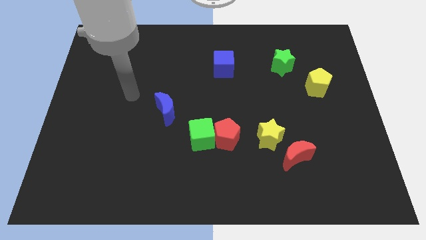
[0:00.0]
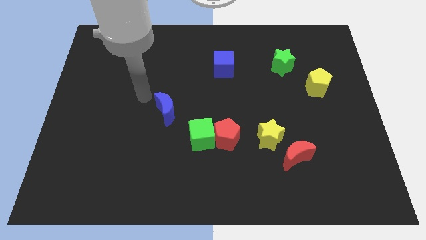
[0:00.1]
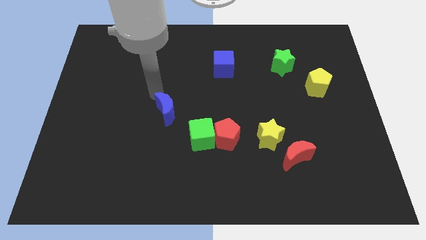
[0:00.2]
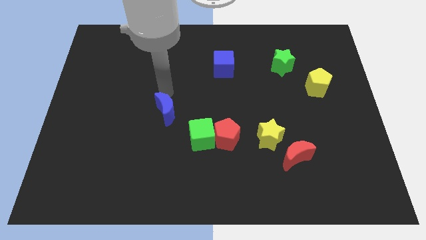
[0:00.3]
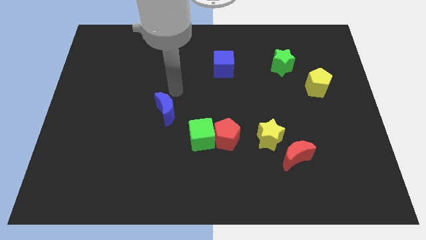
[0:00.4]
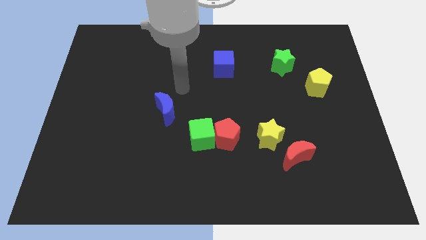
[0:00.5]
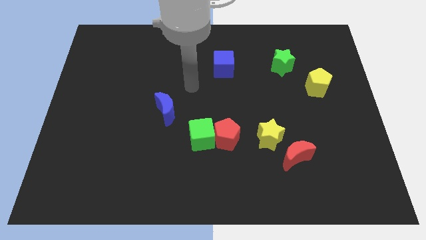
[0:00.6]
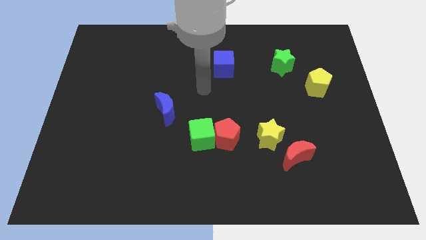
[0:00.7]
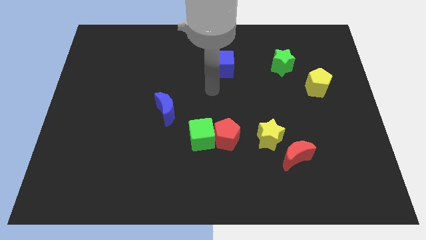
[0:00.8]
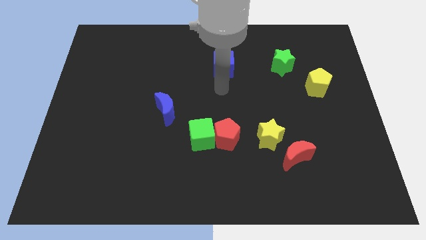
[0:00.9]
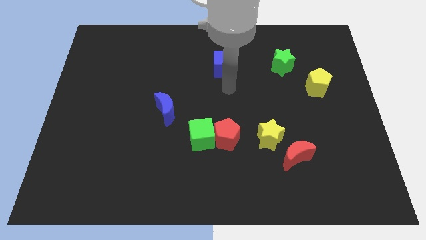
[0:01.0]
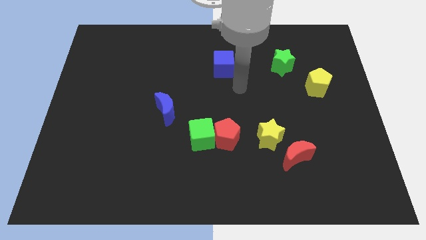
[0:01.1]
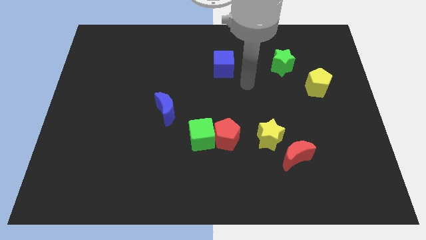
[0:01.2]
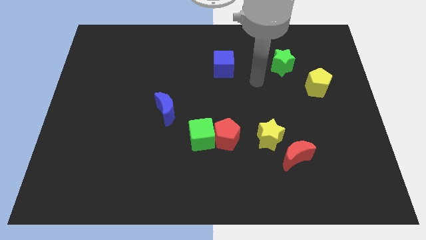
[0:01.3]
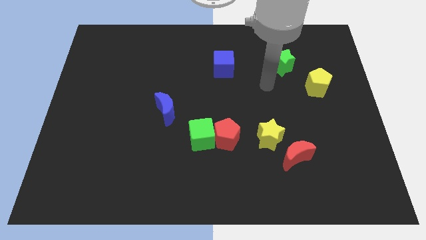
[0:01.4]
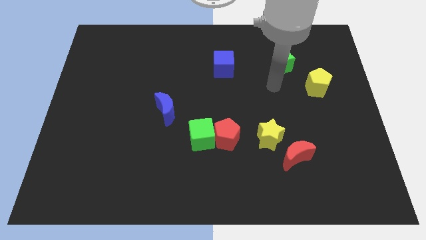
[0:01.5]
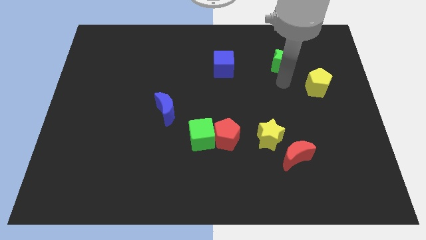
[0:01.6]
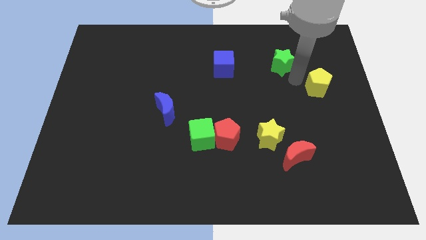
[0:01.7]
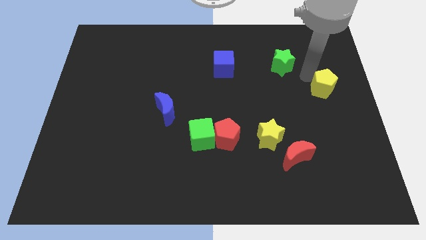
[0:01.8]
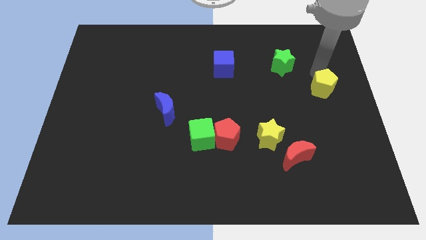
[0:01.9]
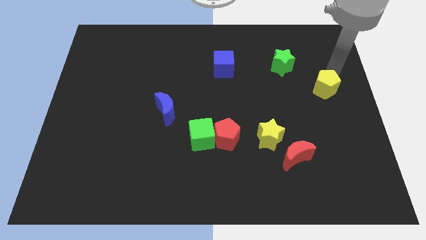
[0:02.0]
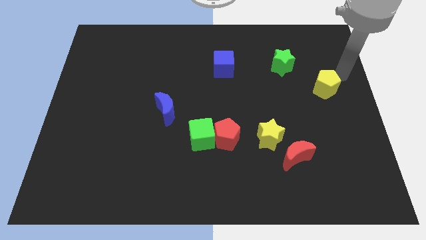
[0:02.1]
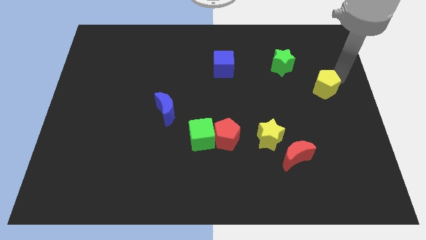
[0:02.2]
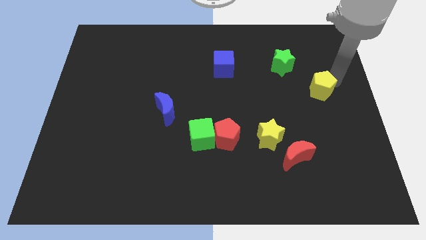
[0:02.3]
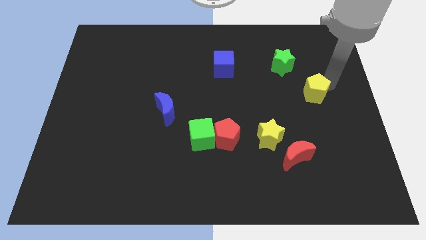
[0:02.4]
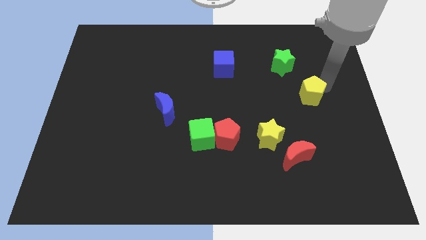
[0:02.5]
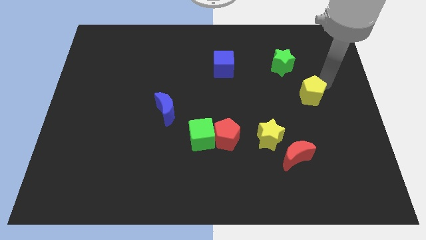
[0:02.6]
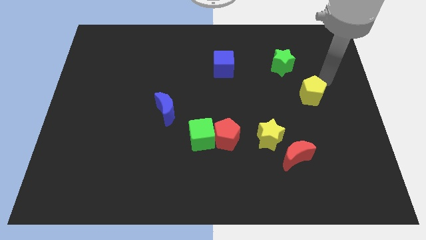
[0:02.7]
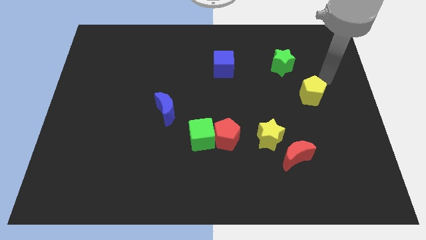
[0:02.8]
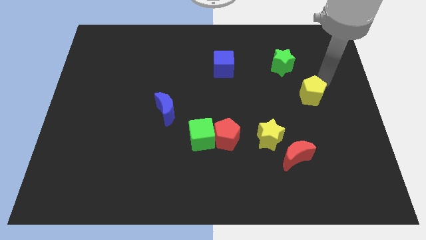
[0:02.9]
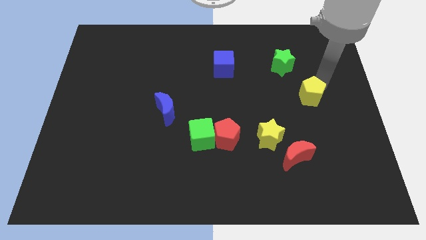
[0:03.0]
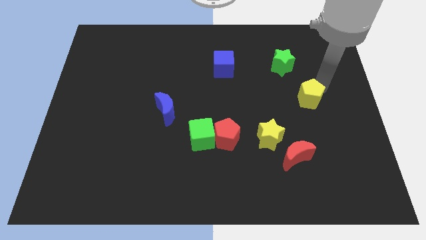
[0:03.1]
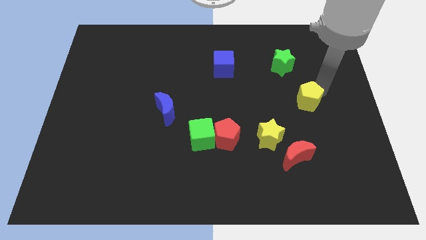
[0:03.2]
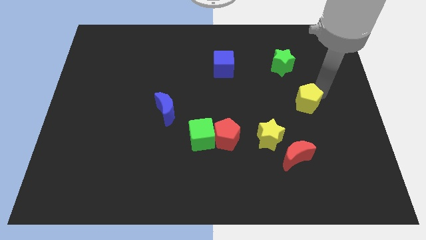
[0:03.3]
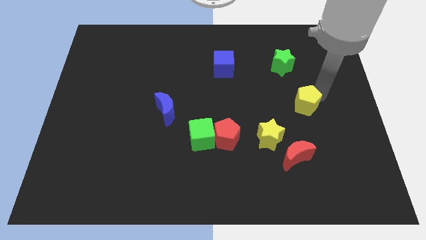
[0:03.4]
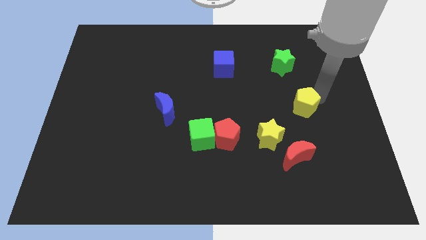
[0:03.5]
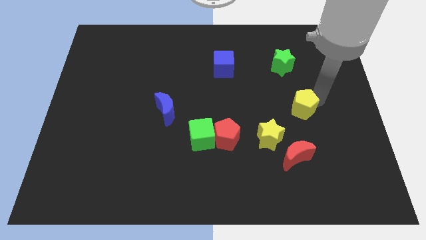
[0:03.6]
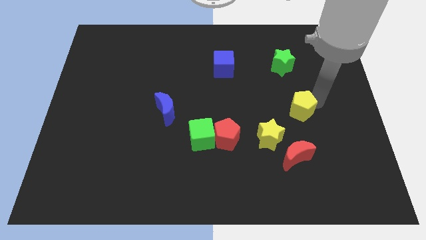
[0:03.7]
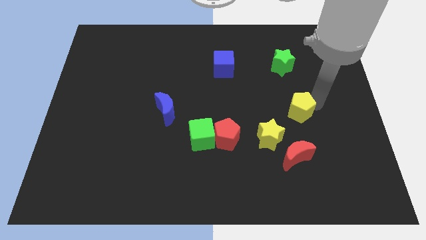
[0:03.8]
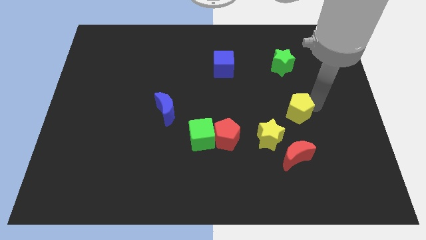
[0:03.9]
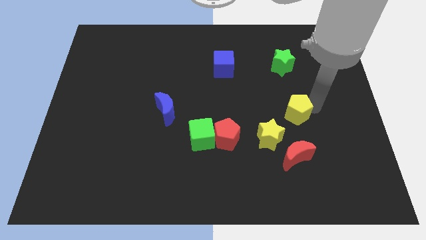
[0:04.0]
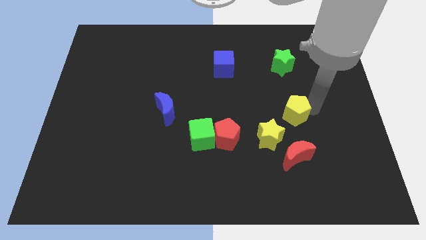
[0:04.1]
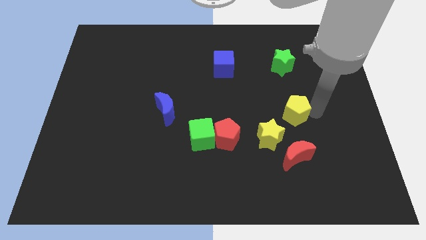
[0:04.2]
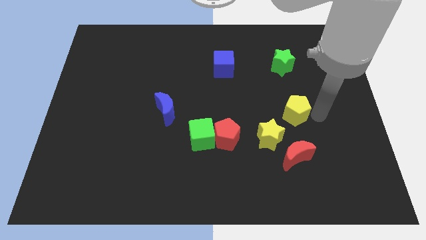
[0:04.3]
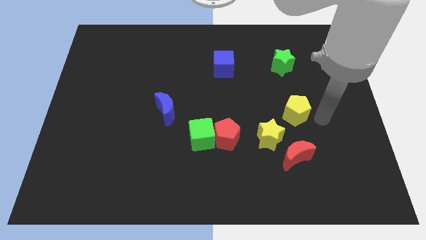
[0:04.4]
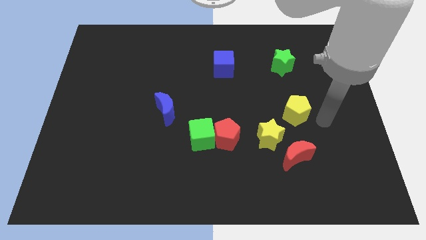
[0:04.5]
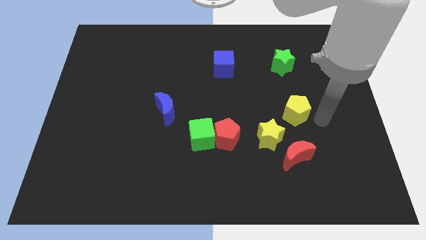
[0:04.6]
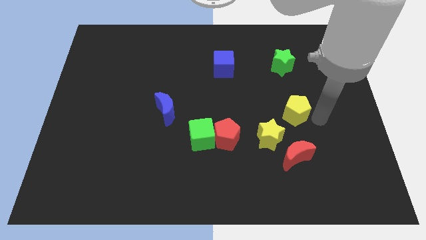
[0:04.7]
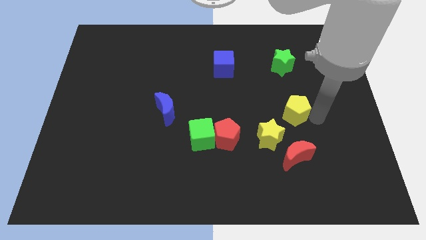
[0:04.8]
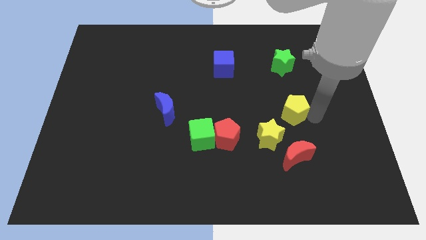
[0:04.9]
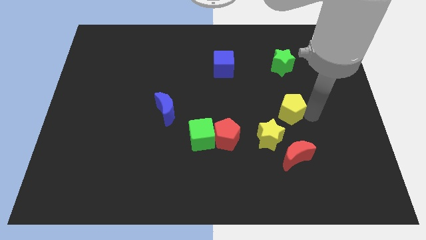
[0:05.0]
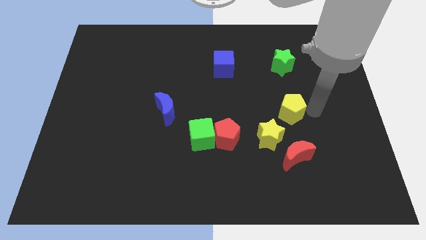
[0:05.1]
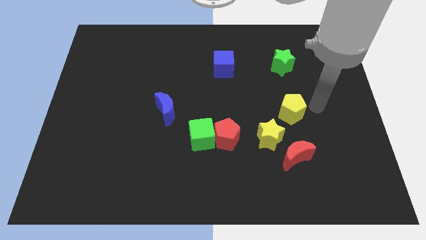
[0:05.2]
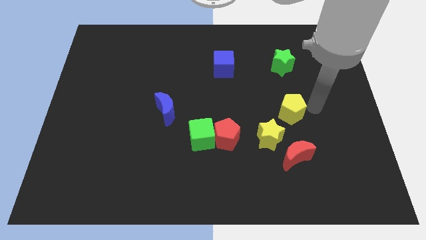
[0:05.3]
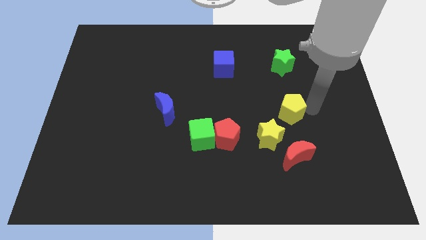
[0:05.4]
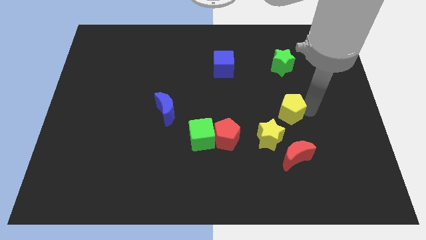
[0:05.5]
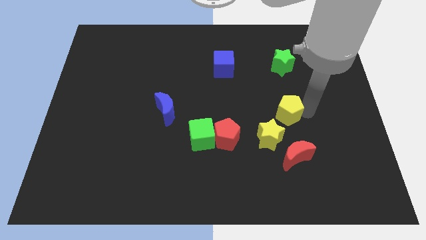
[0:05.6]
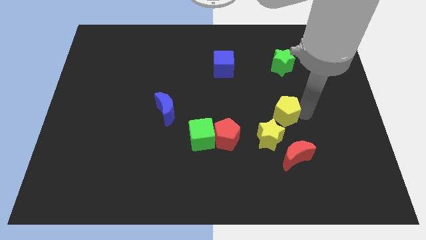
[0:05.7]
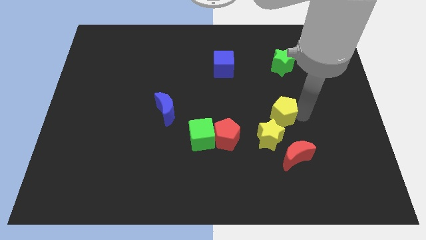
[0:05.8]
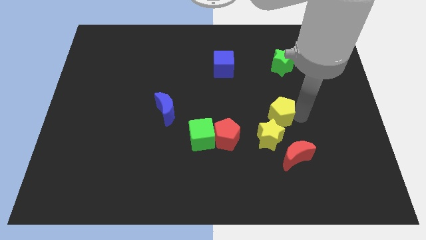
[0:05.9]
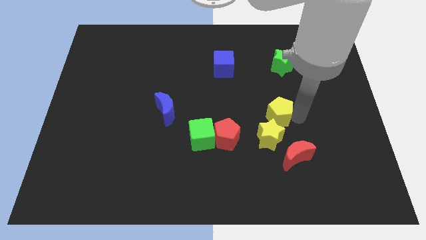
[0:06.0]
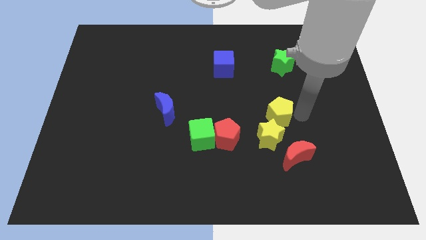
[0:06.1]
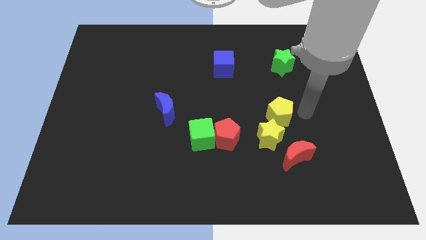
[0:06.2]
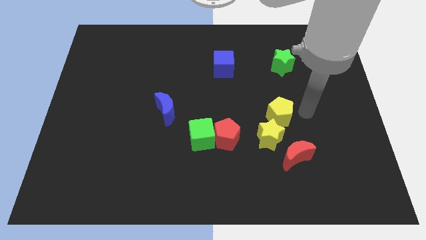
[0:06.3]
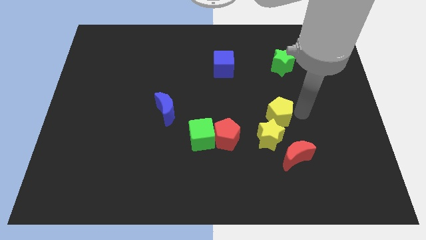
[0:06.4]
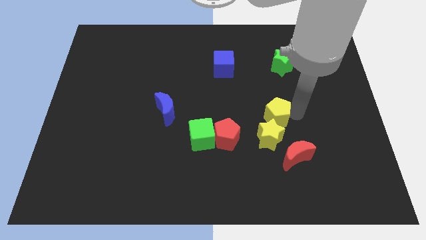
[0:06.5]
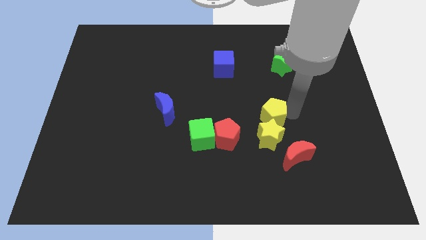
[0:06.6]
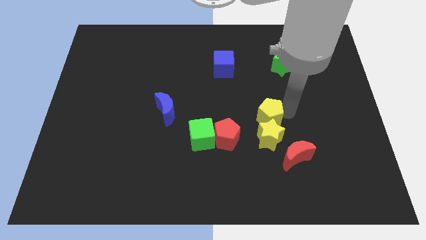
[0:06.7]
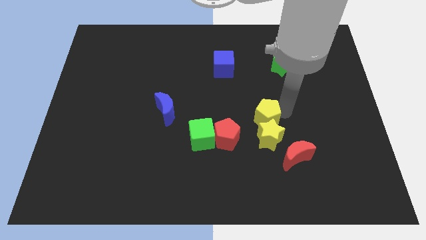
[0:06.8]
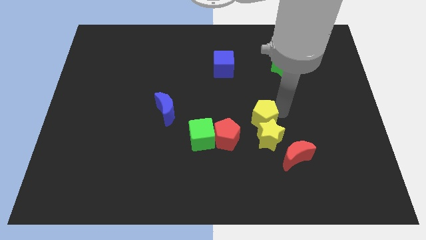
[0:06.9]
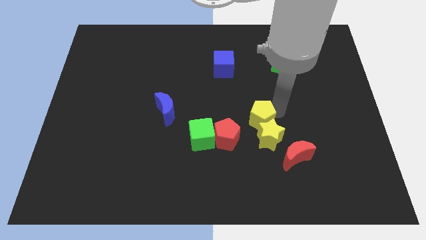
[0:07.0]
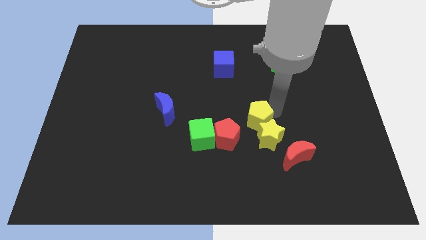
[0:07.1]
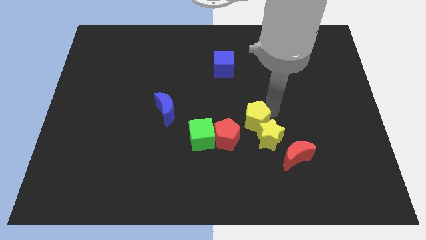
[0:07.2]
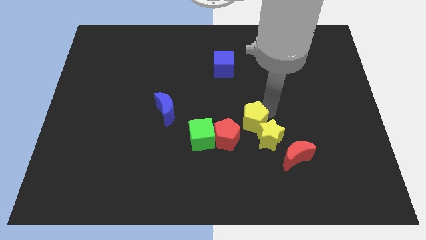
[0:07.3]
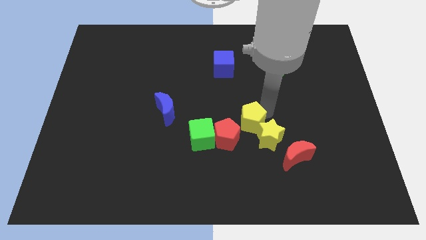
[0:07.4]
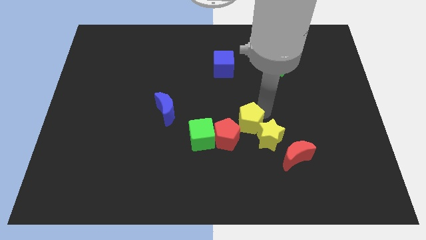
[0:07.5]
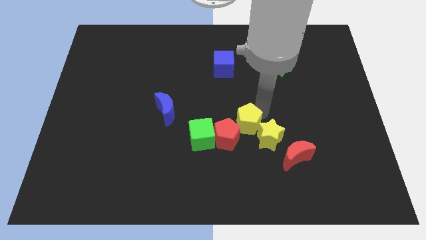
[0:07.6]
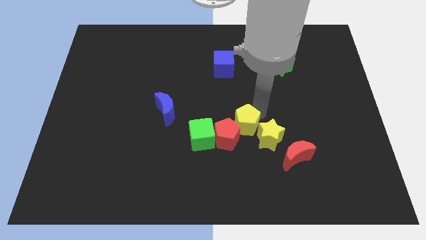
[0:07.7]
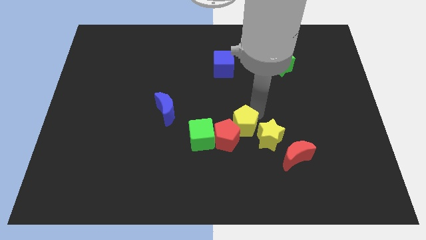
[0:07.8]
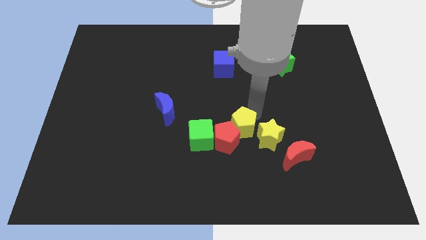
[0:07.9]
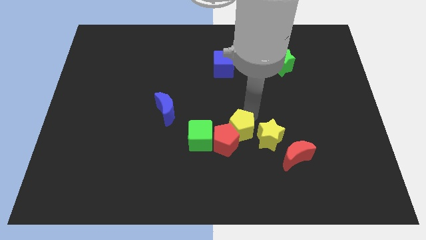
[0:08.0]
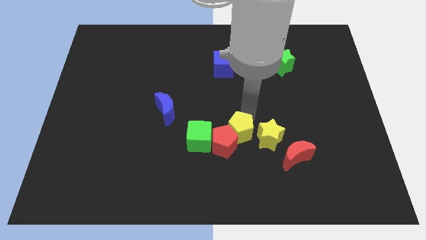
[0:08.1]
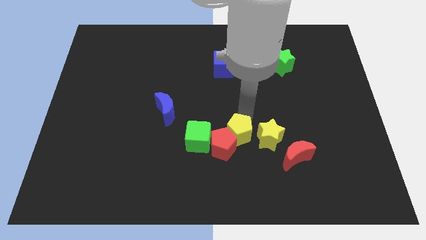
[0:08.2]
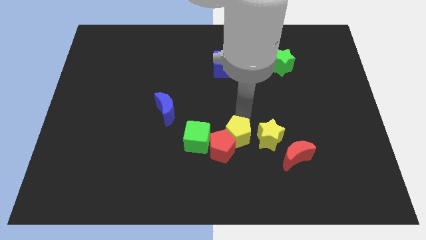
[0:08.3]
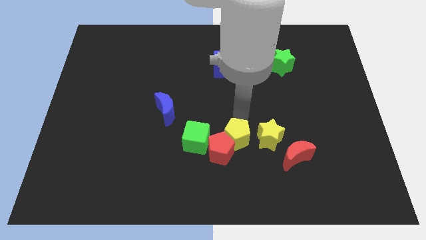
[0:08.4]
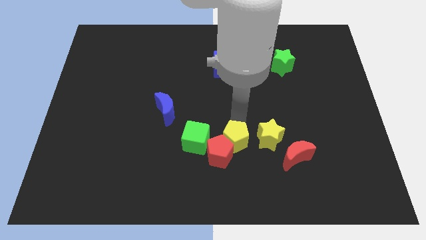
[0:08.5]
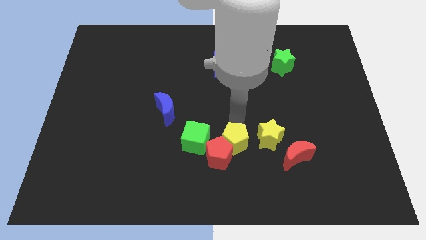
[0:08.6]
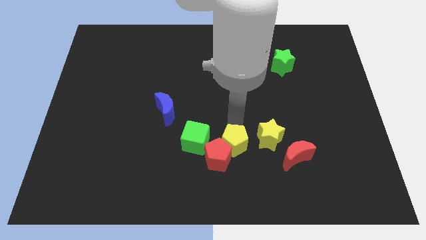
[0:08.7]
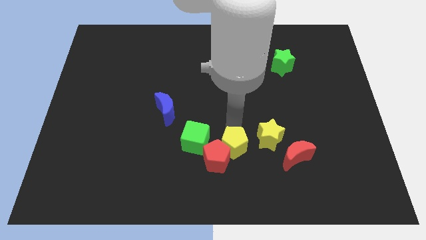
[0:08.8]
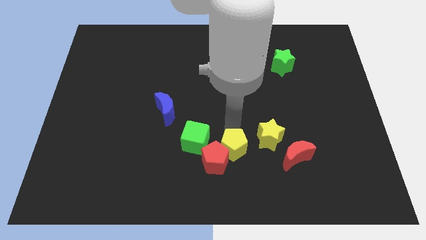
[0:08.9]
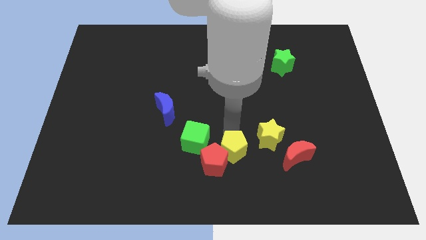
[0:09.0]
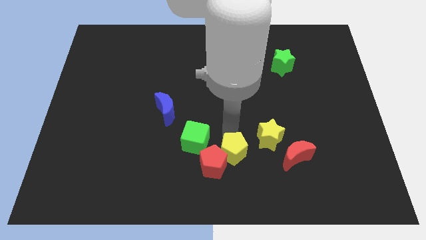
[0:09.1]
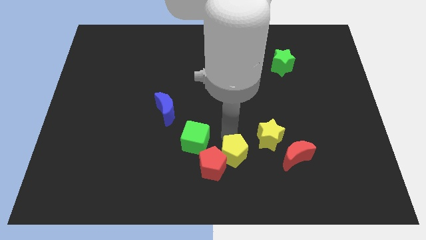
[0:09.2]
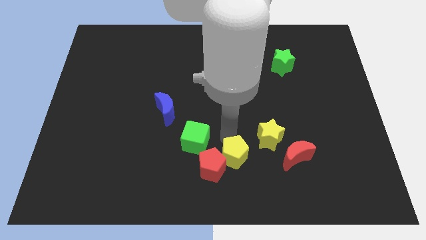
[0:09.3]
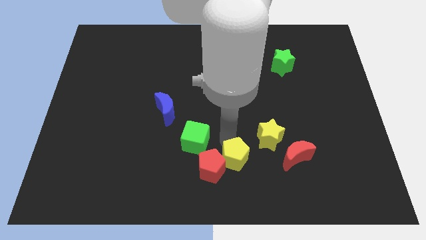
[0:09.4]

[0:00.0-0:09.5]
put the yellow pentagon to the bottom side
